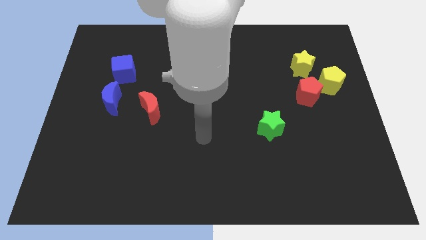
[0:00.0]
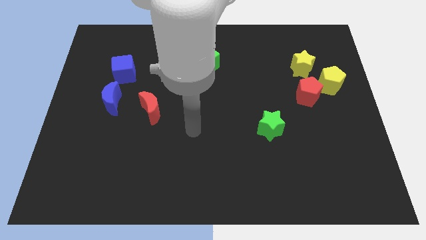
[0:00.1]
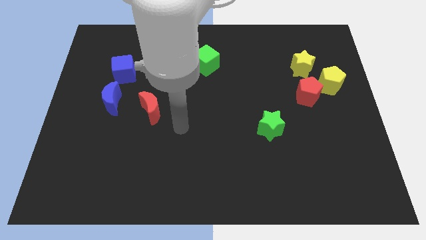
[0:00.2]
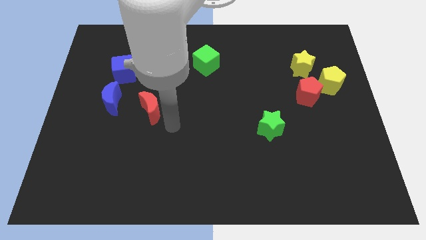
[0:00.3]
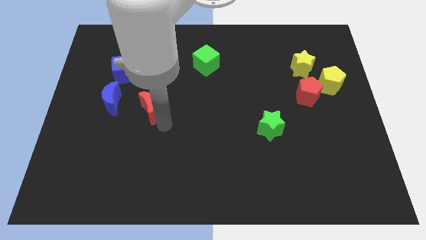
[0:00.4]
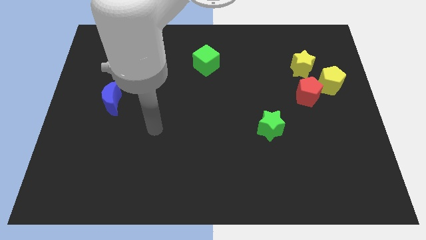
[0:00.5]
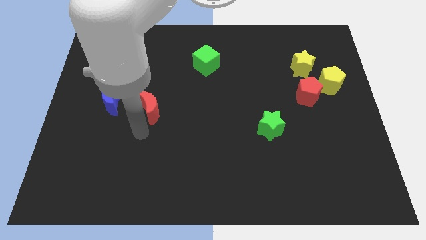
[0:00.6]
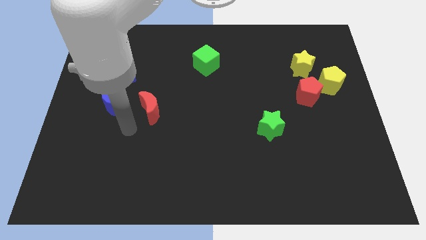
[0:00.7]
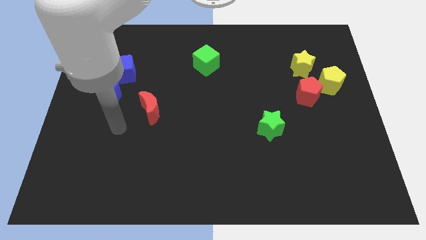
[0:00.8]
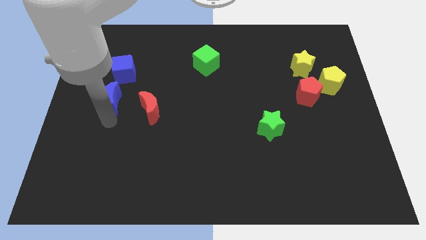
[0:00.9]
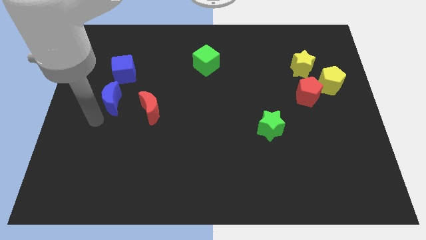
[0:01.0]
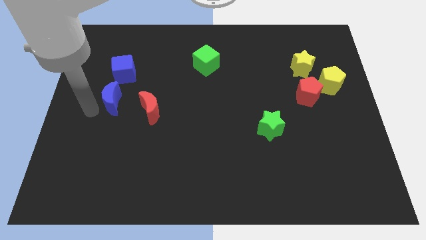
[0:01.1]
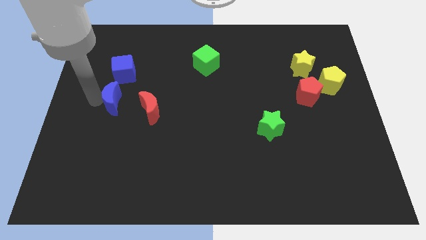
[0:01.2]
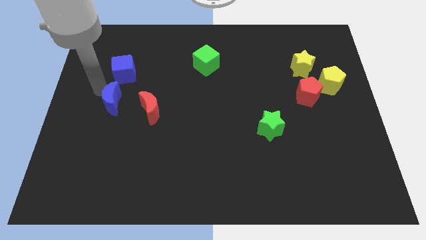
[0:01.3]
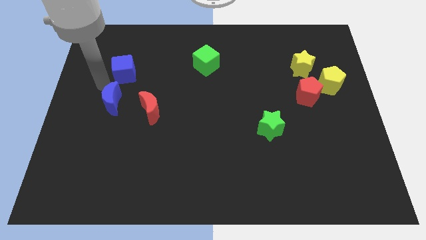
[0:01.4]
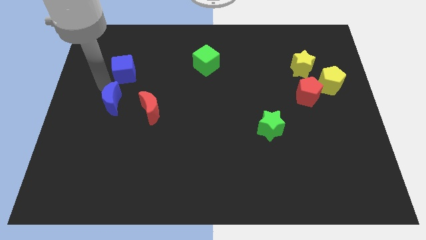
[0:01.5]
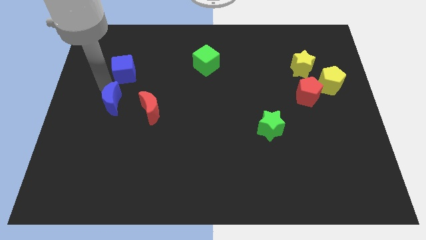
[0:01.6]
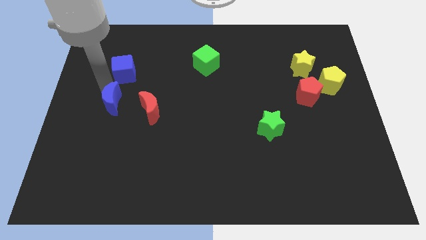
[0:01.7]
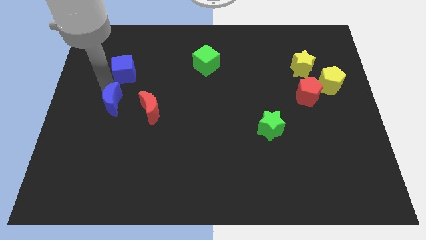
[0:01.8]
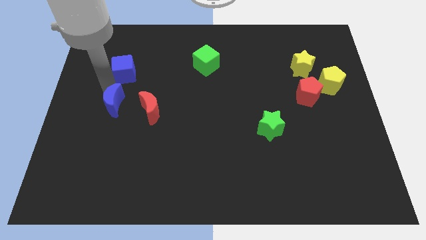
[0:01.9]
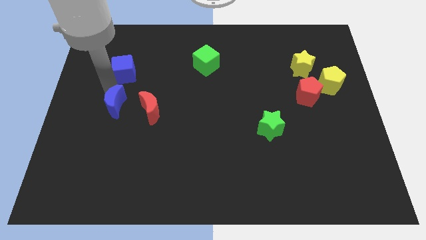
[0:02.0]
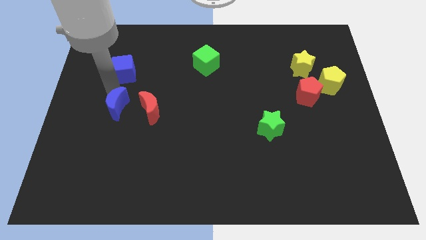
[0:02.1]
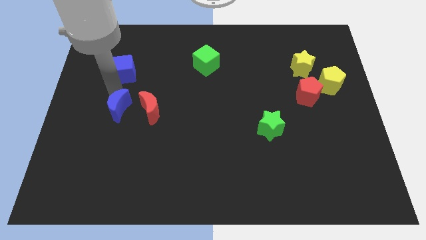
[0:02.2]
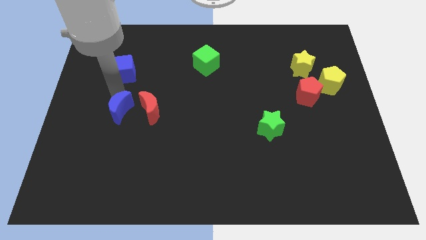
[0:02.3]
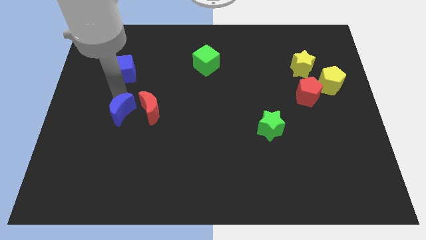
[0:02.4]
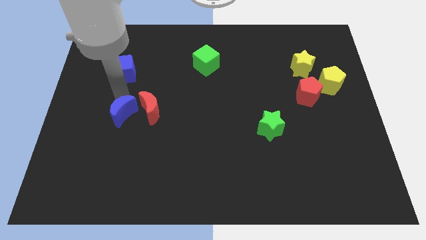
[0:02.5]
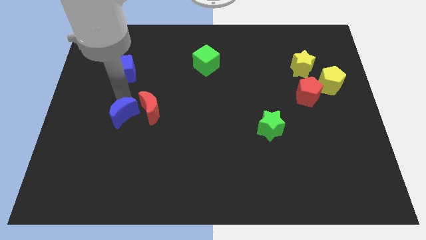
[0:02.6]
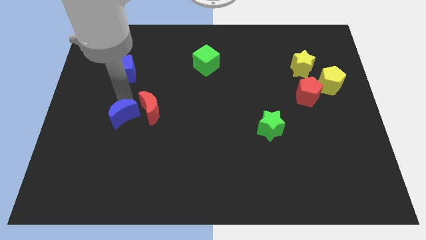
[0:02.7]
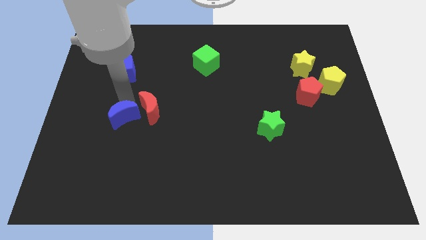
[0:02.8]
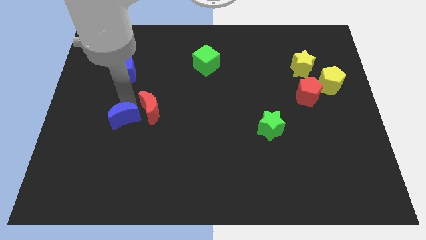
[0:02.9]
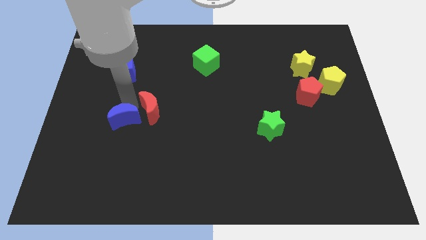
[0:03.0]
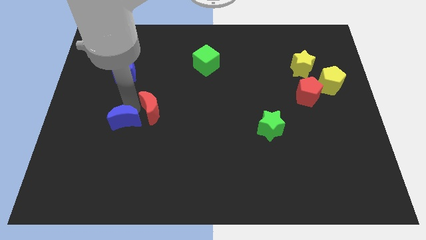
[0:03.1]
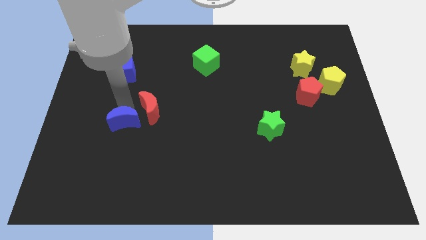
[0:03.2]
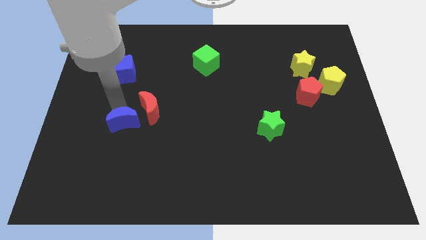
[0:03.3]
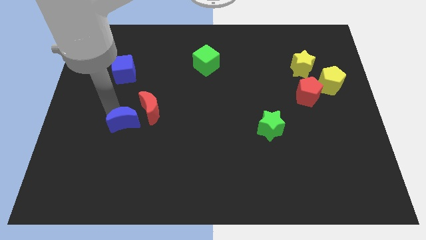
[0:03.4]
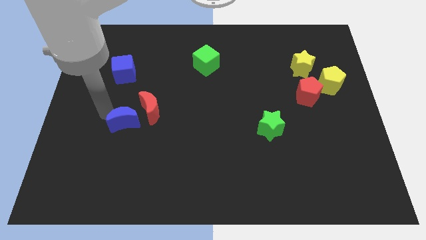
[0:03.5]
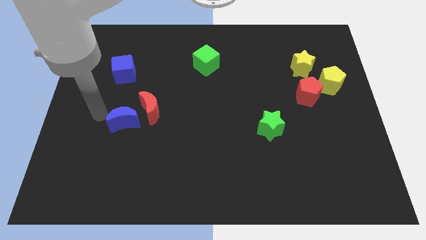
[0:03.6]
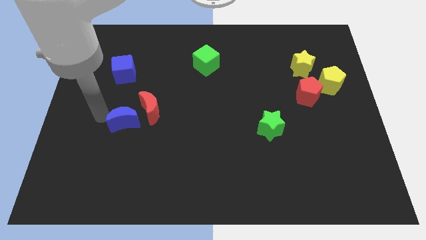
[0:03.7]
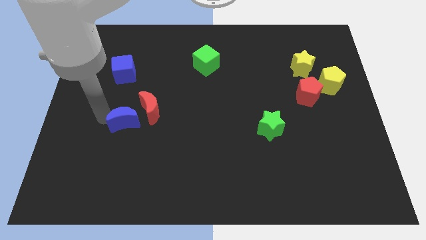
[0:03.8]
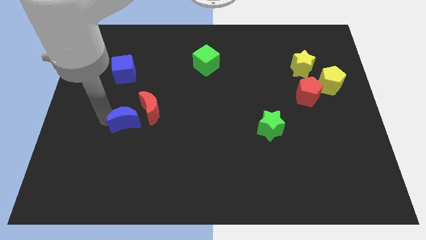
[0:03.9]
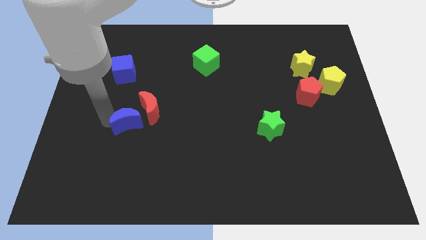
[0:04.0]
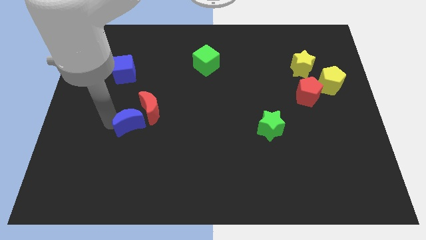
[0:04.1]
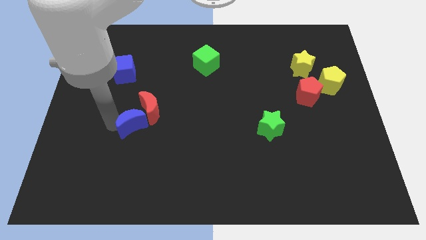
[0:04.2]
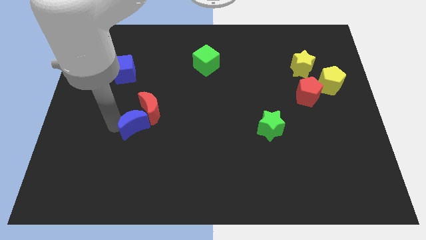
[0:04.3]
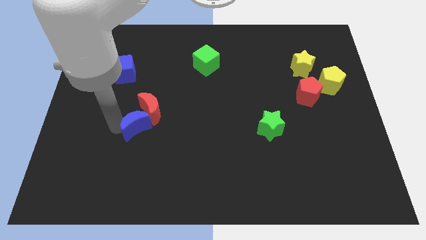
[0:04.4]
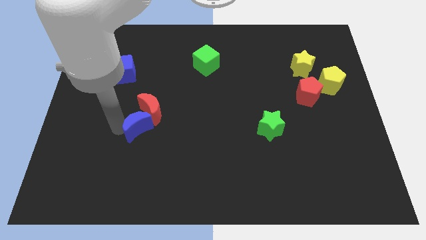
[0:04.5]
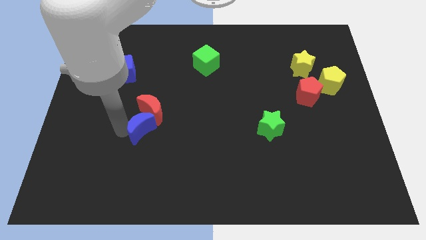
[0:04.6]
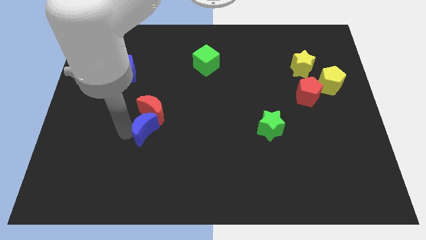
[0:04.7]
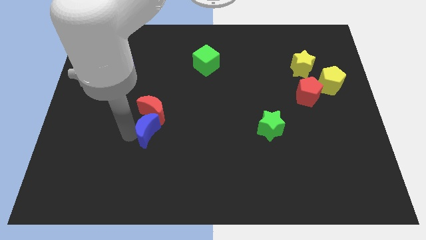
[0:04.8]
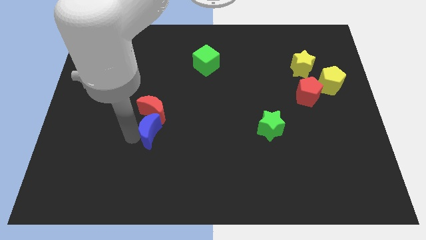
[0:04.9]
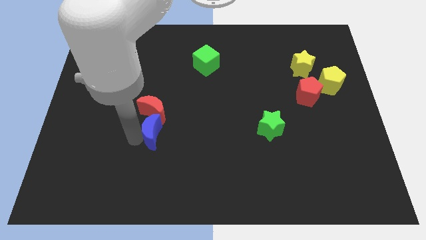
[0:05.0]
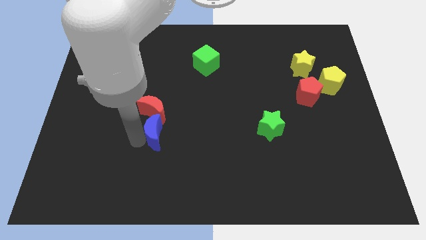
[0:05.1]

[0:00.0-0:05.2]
slightly push the blue moon to the right

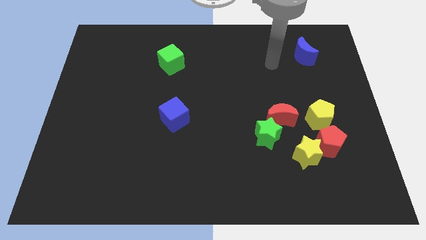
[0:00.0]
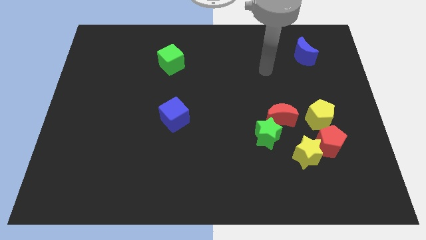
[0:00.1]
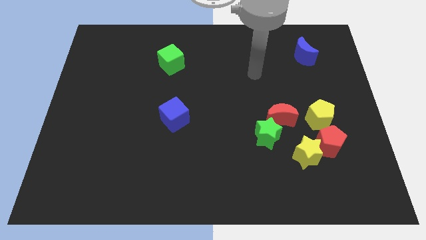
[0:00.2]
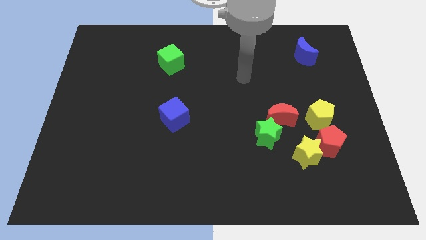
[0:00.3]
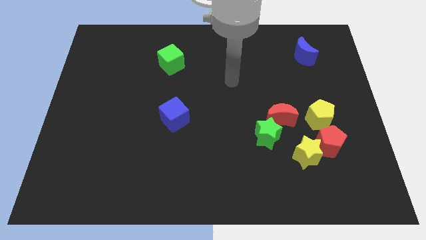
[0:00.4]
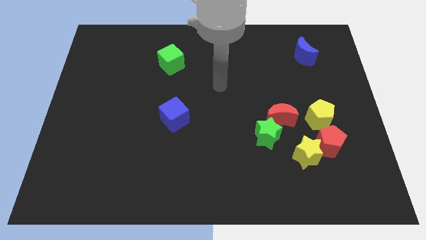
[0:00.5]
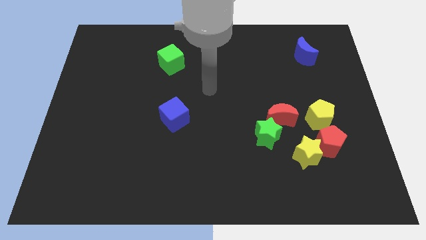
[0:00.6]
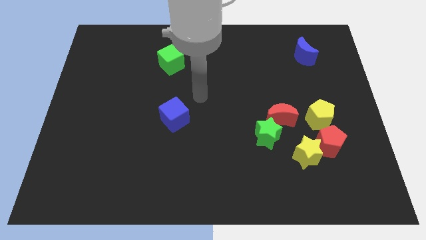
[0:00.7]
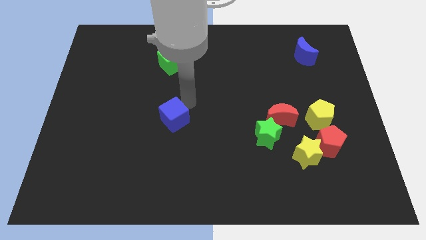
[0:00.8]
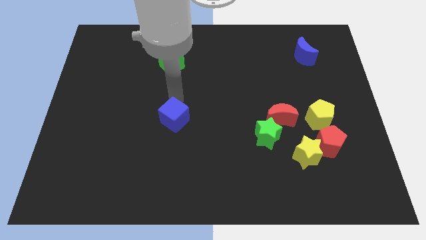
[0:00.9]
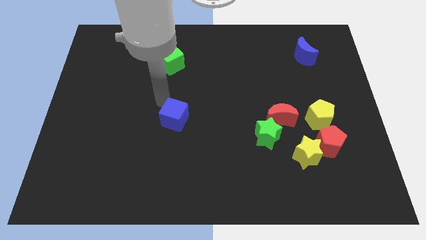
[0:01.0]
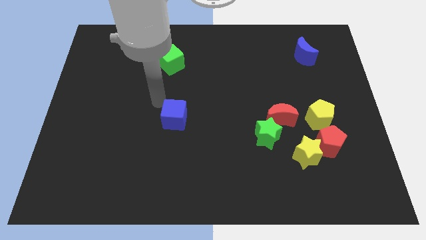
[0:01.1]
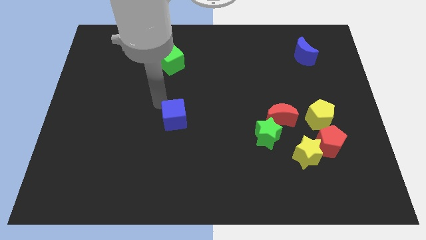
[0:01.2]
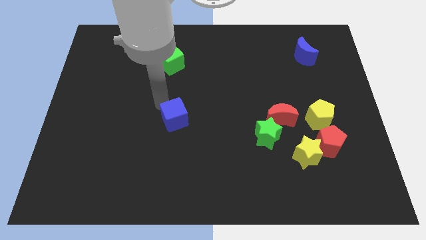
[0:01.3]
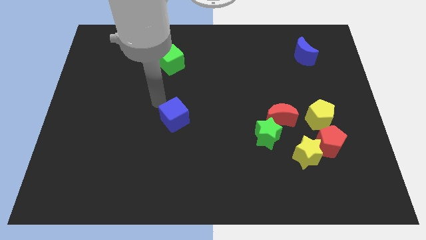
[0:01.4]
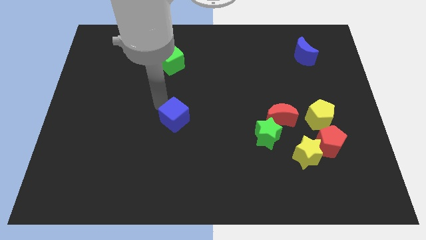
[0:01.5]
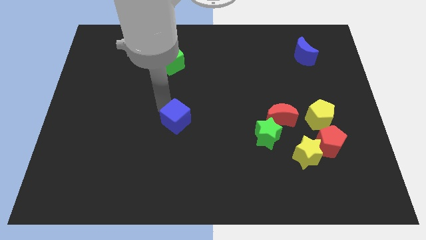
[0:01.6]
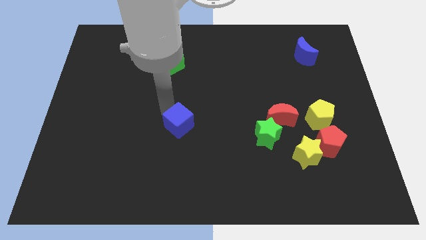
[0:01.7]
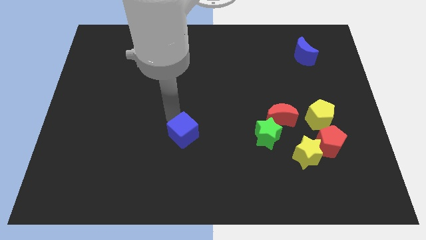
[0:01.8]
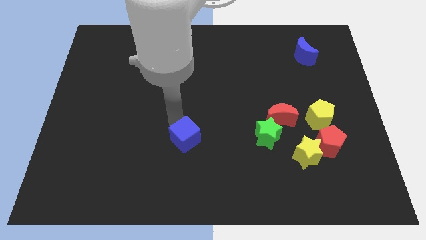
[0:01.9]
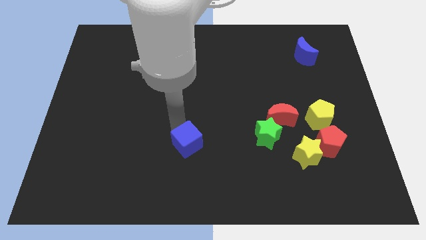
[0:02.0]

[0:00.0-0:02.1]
slide the blue cube diagonally downwards and to the right slightly

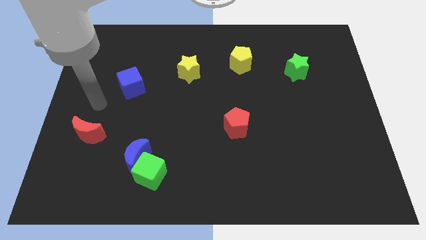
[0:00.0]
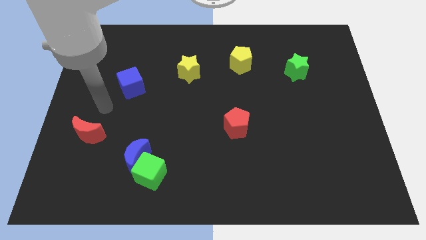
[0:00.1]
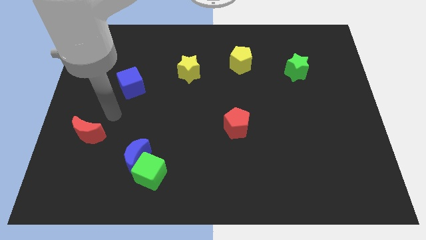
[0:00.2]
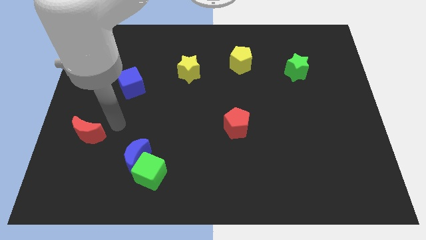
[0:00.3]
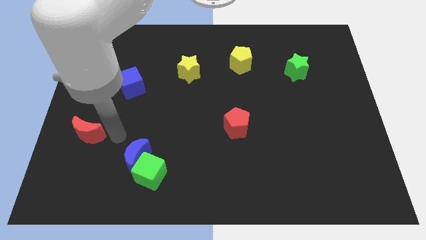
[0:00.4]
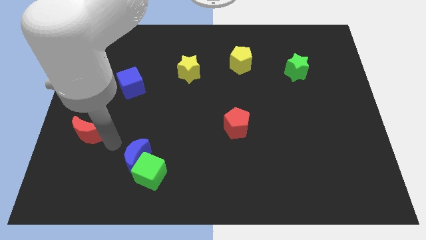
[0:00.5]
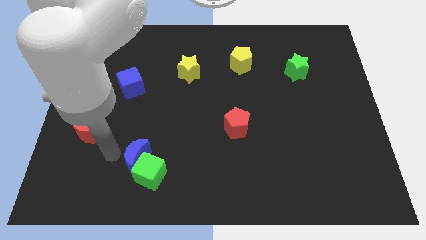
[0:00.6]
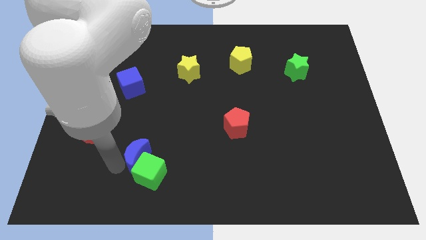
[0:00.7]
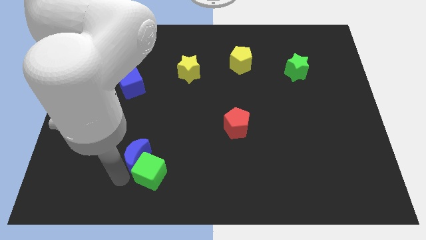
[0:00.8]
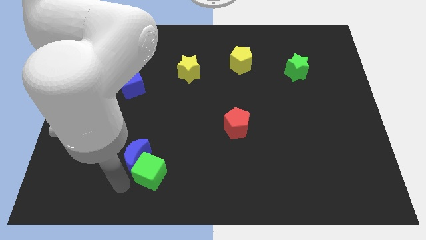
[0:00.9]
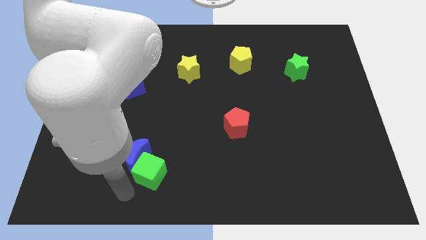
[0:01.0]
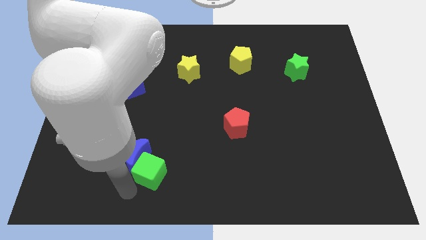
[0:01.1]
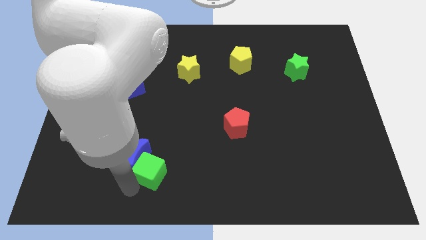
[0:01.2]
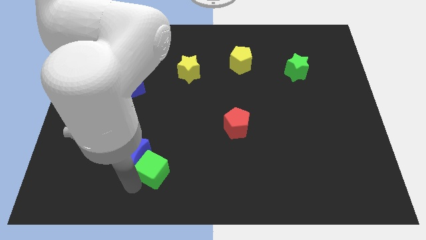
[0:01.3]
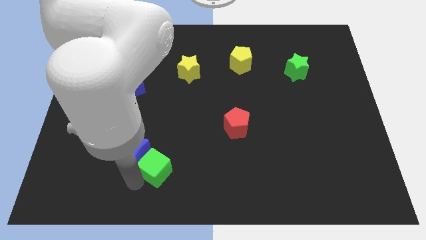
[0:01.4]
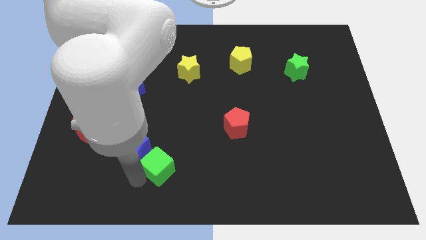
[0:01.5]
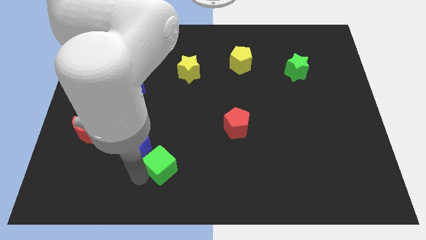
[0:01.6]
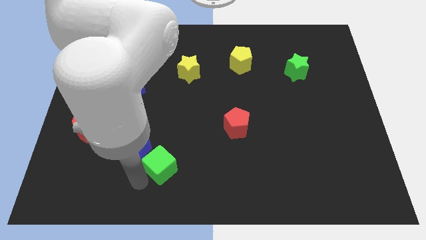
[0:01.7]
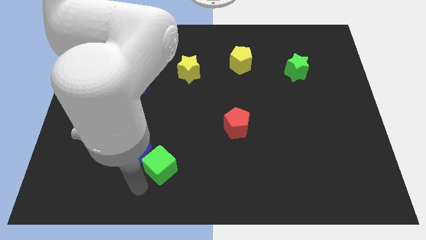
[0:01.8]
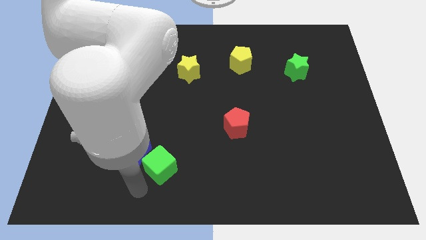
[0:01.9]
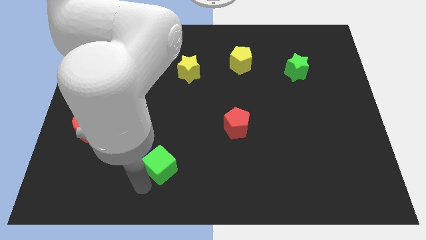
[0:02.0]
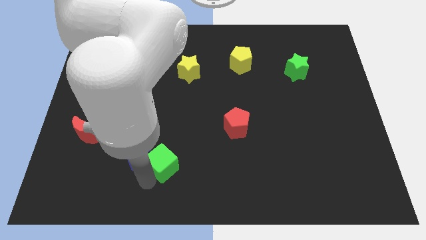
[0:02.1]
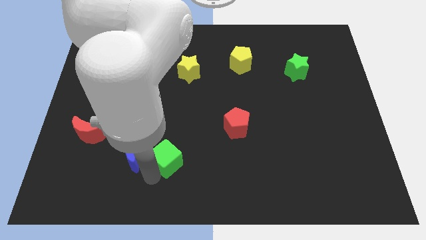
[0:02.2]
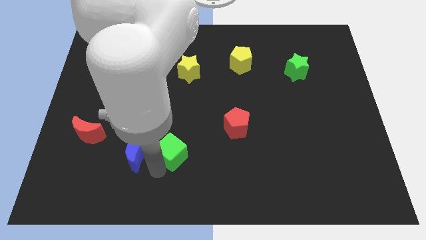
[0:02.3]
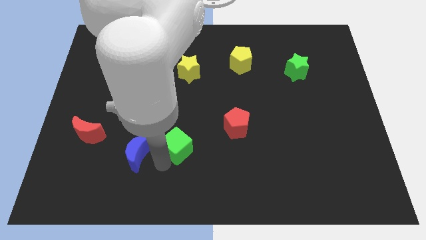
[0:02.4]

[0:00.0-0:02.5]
slightly slide the green cube up and right diagonally
